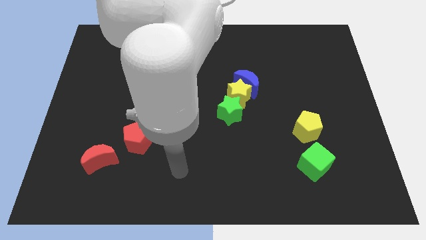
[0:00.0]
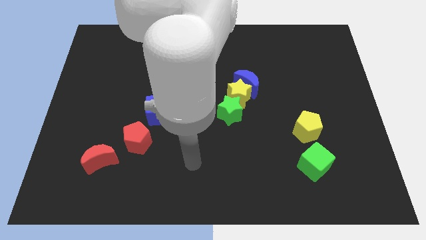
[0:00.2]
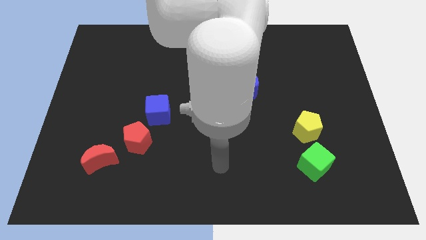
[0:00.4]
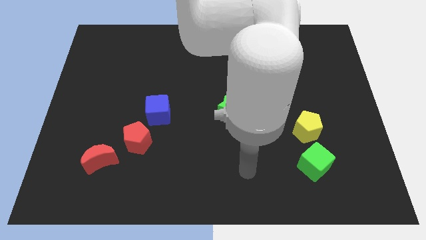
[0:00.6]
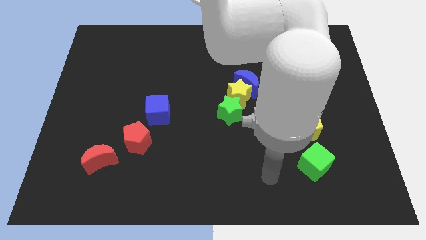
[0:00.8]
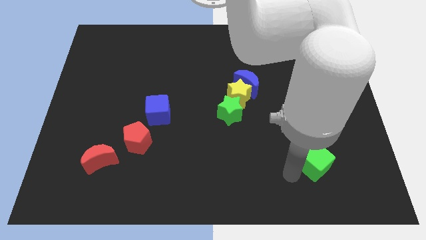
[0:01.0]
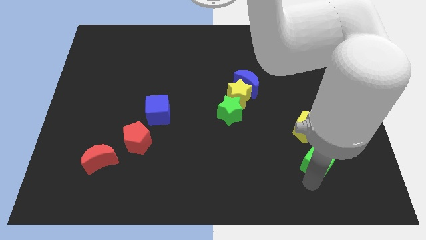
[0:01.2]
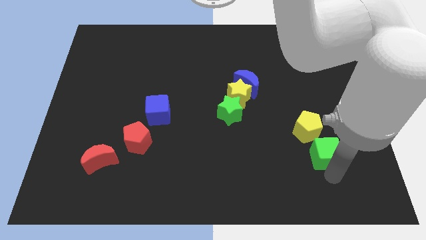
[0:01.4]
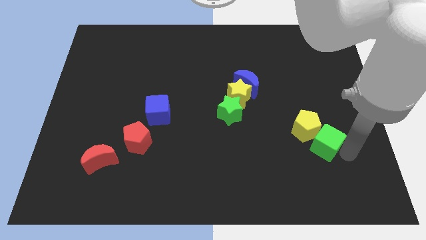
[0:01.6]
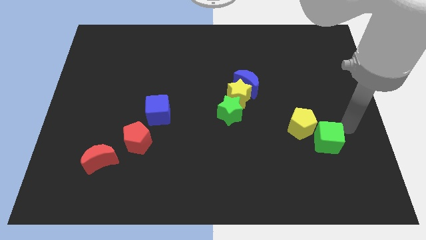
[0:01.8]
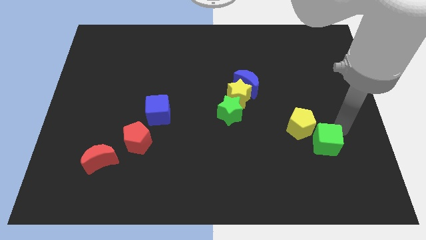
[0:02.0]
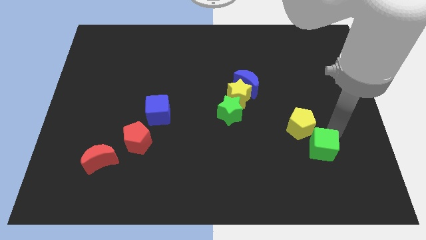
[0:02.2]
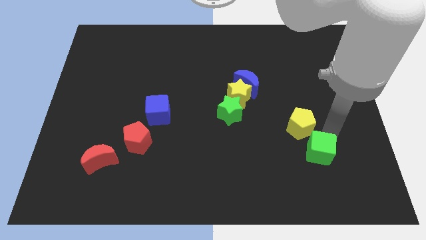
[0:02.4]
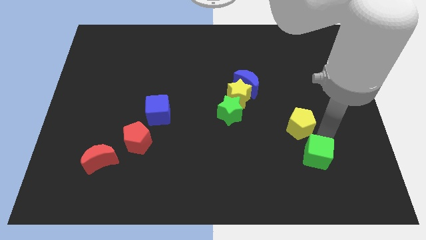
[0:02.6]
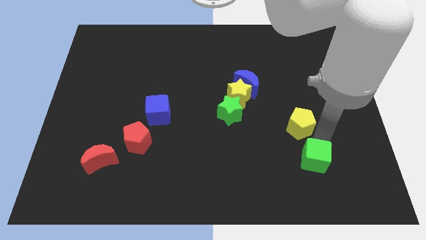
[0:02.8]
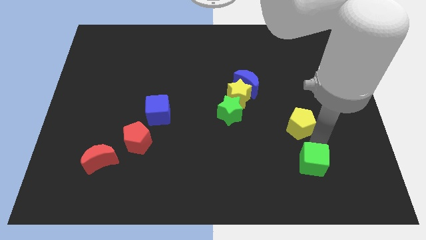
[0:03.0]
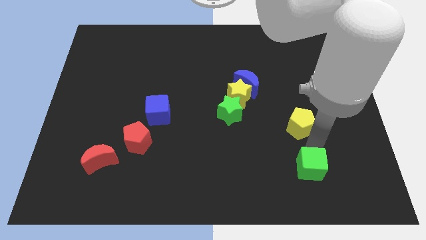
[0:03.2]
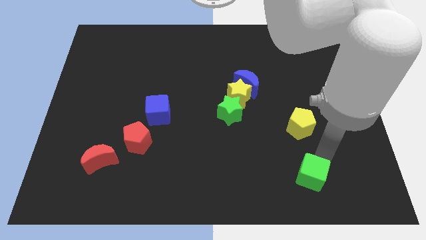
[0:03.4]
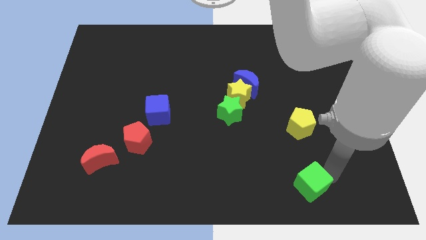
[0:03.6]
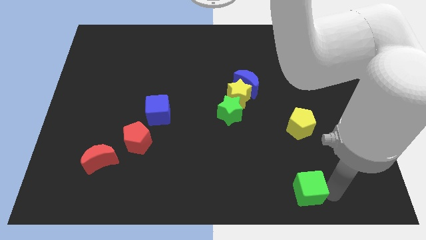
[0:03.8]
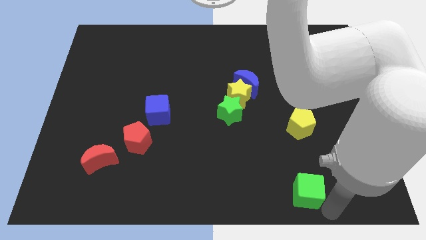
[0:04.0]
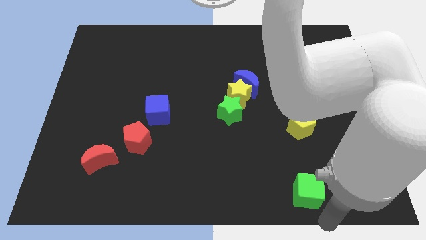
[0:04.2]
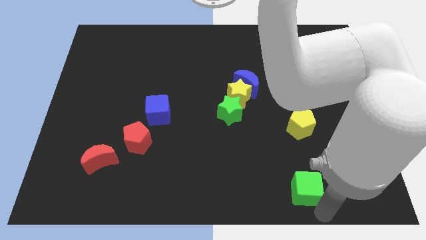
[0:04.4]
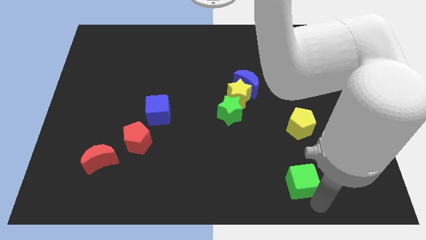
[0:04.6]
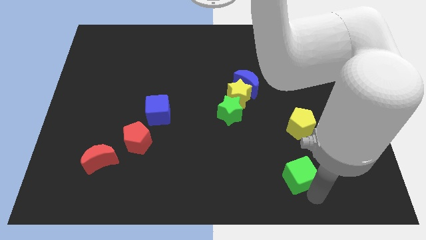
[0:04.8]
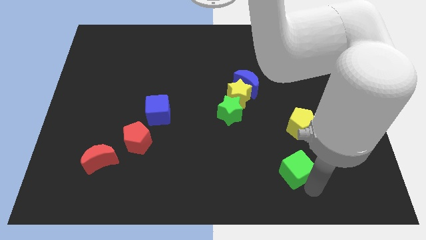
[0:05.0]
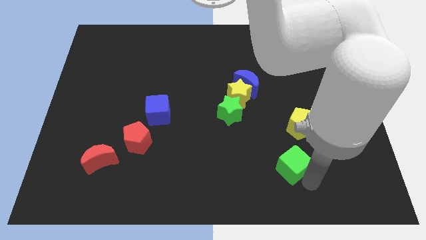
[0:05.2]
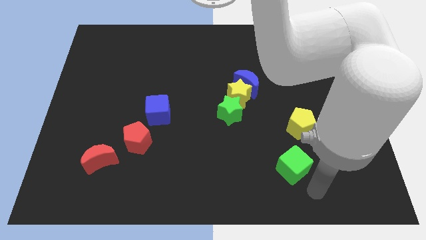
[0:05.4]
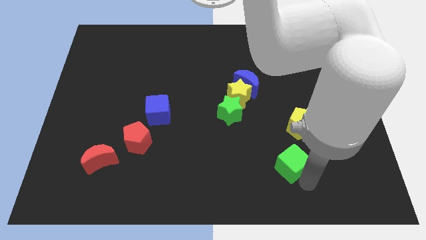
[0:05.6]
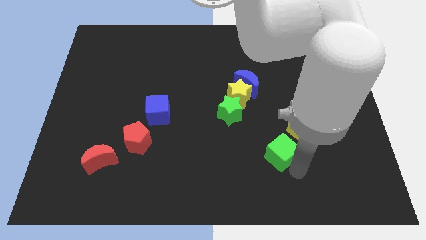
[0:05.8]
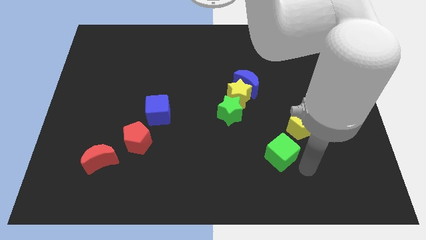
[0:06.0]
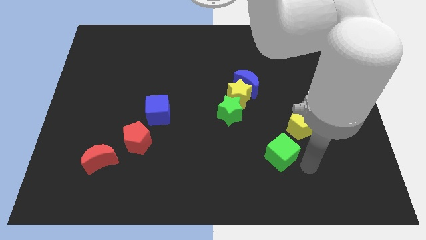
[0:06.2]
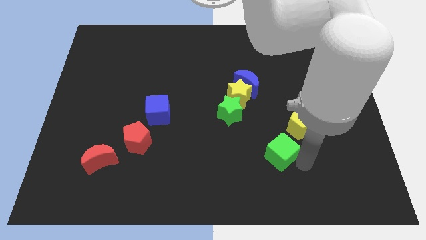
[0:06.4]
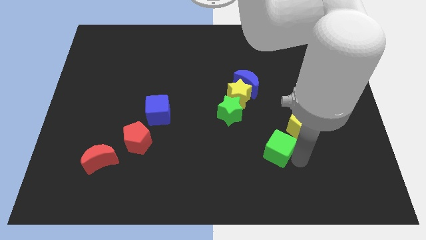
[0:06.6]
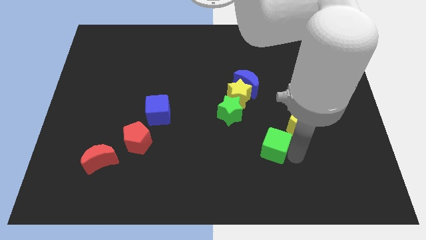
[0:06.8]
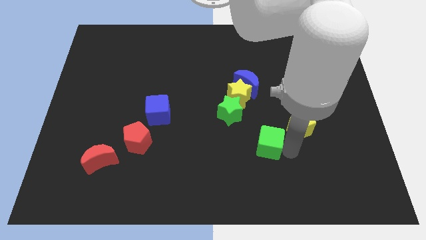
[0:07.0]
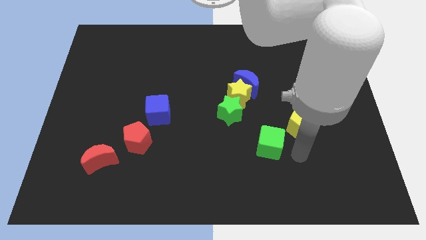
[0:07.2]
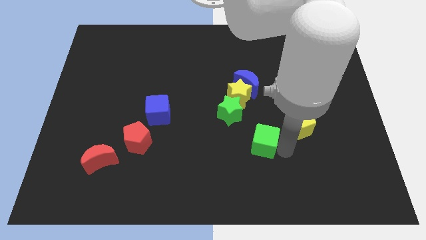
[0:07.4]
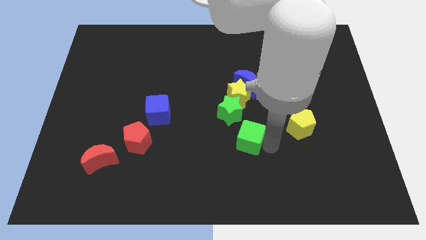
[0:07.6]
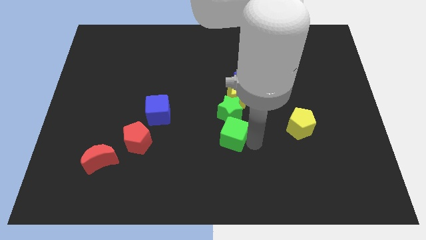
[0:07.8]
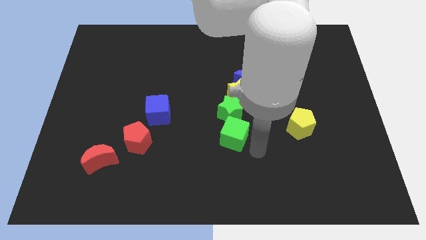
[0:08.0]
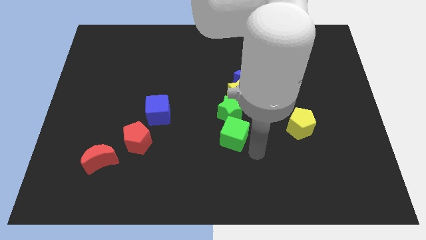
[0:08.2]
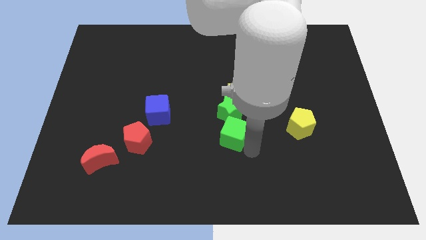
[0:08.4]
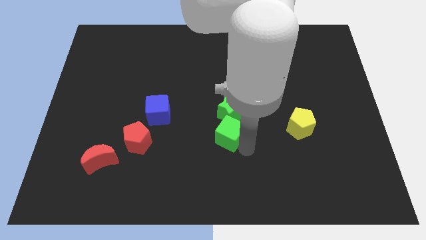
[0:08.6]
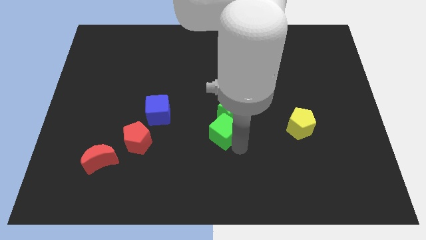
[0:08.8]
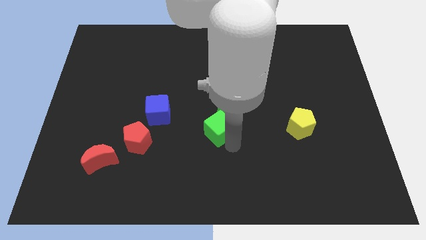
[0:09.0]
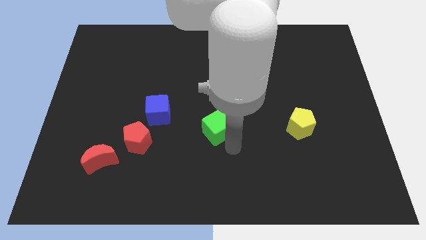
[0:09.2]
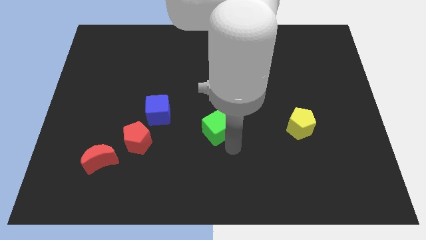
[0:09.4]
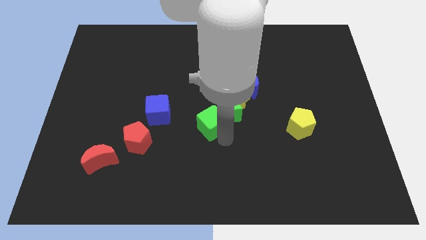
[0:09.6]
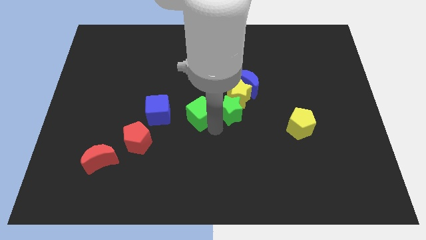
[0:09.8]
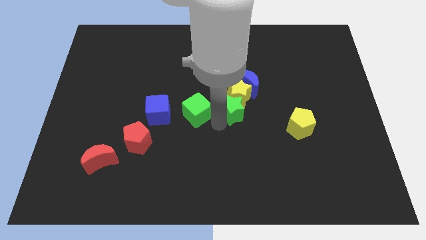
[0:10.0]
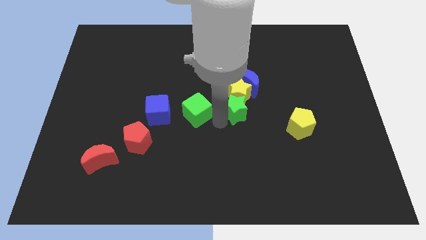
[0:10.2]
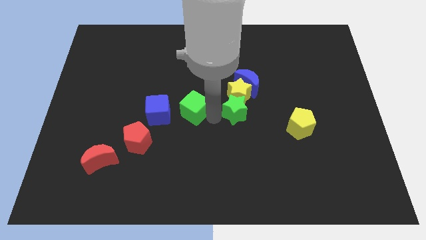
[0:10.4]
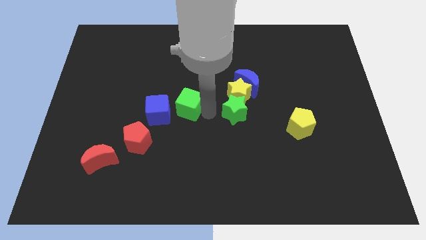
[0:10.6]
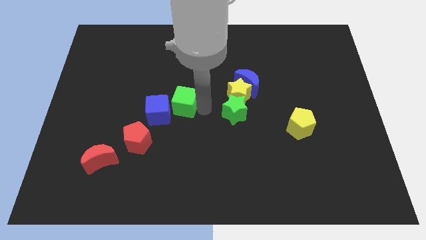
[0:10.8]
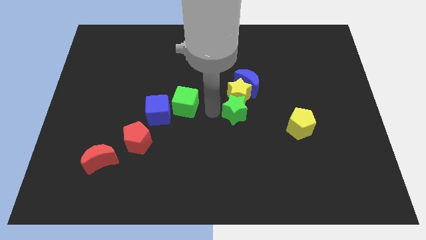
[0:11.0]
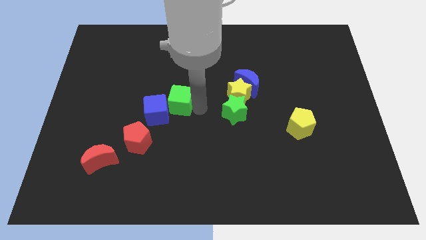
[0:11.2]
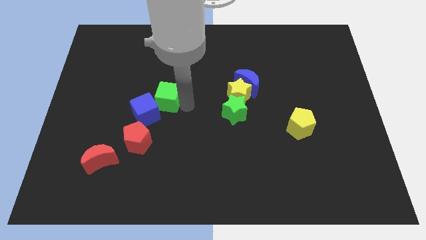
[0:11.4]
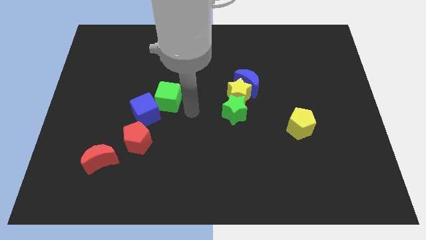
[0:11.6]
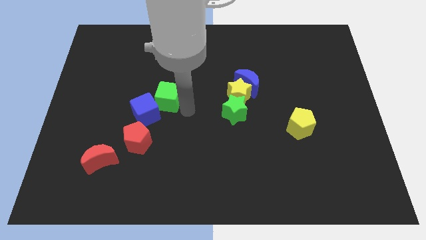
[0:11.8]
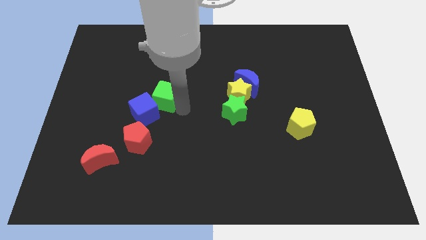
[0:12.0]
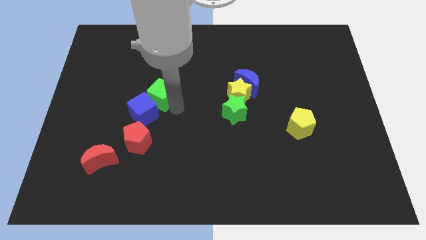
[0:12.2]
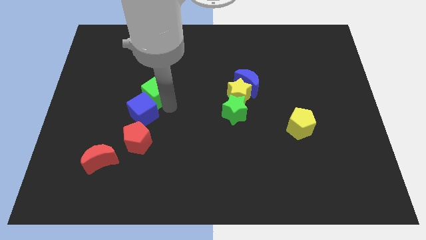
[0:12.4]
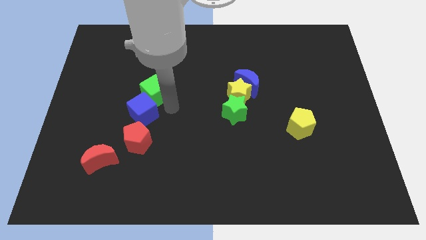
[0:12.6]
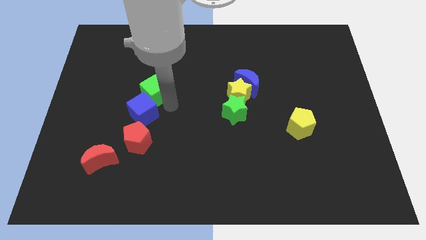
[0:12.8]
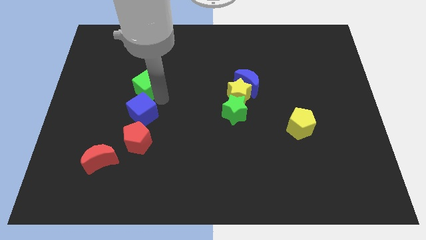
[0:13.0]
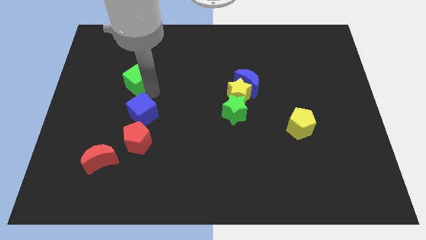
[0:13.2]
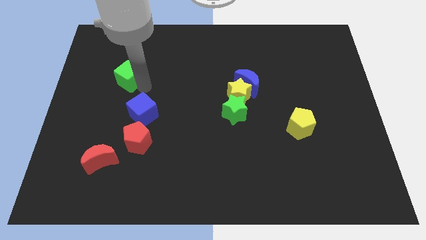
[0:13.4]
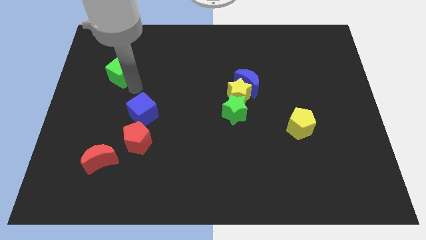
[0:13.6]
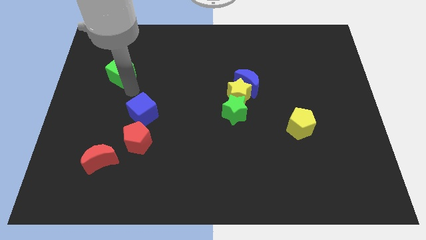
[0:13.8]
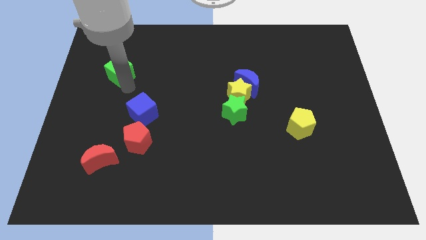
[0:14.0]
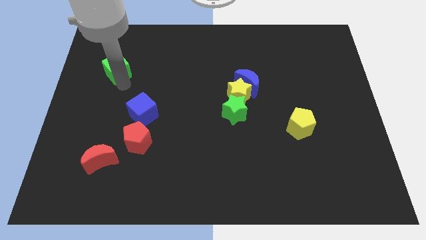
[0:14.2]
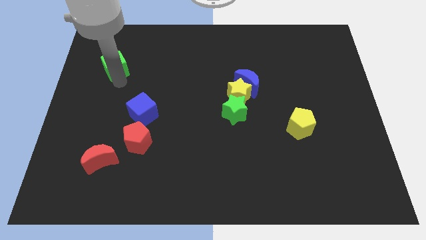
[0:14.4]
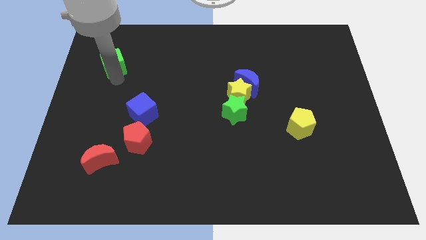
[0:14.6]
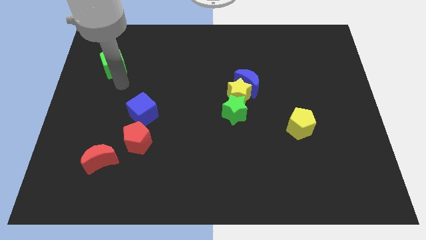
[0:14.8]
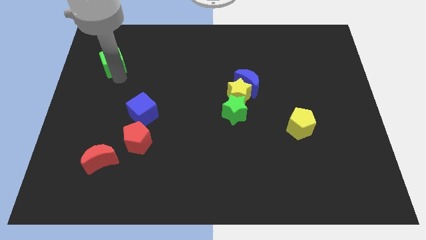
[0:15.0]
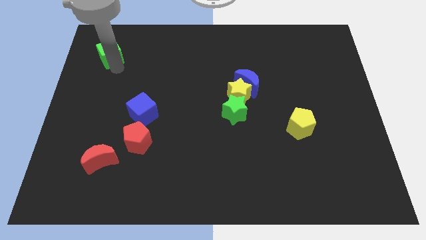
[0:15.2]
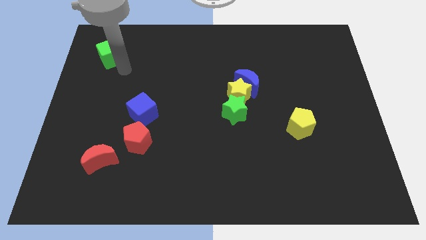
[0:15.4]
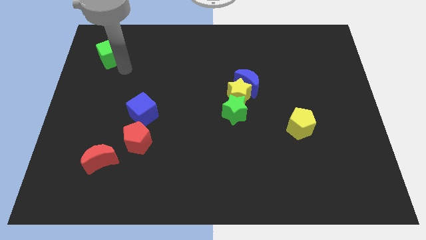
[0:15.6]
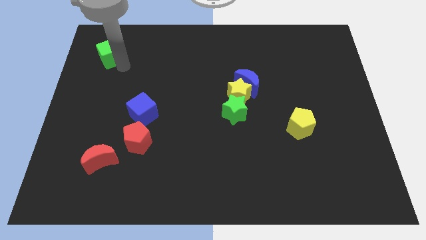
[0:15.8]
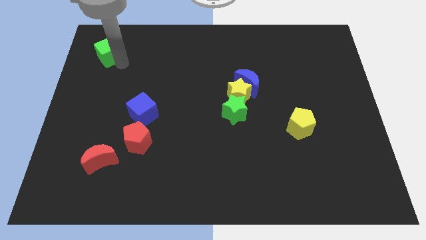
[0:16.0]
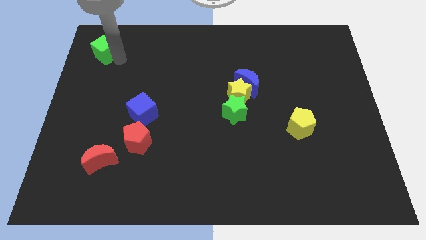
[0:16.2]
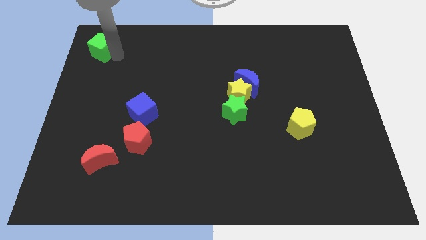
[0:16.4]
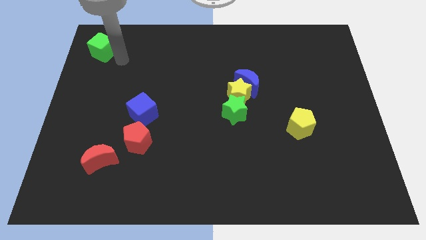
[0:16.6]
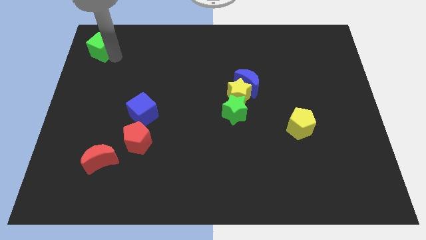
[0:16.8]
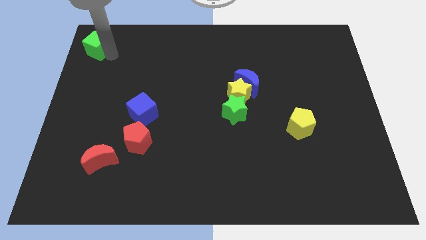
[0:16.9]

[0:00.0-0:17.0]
push the green cube to the upper left corner
